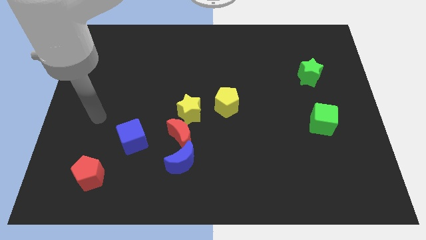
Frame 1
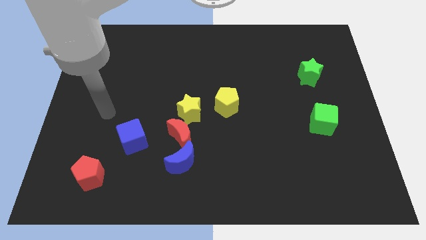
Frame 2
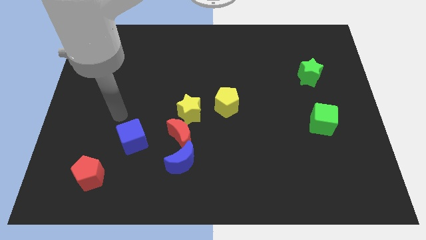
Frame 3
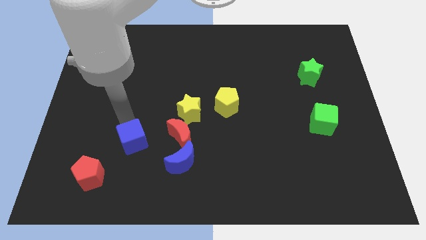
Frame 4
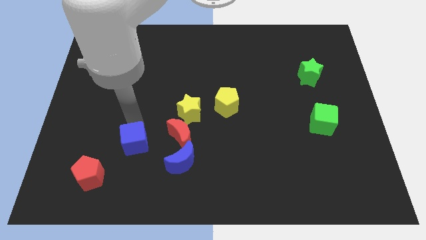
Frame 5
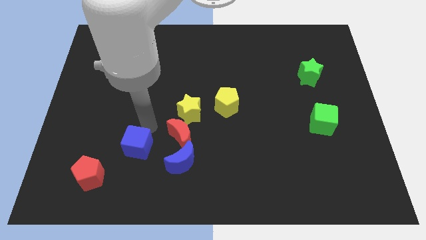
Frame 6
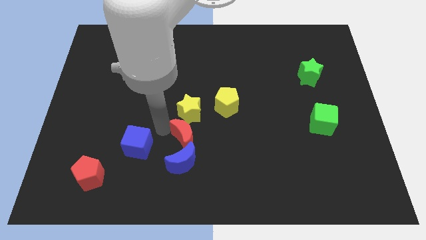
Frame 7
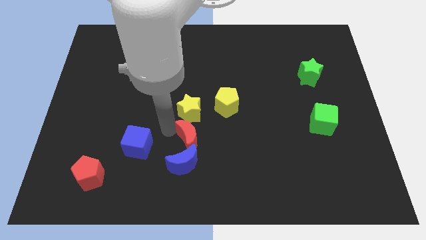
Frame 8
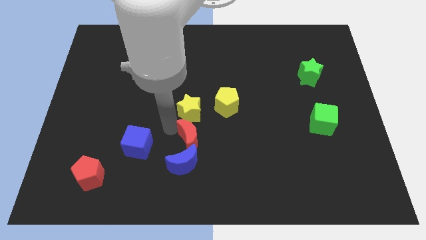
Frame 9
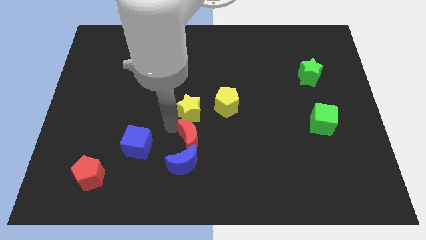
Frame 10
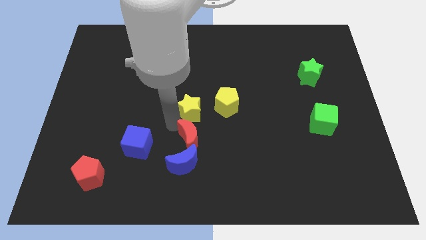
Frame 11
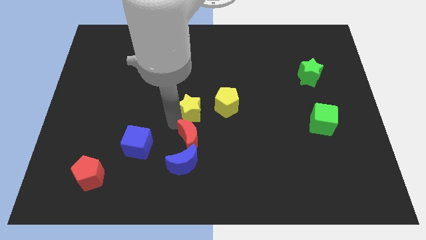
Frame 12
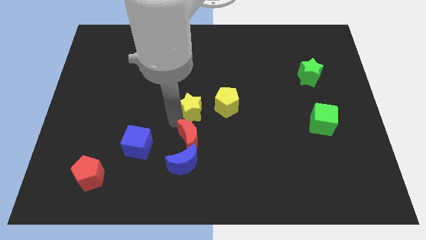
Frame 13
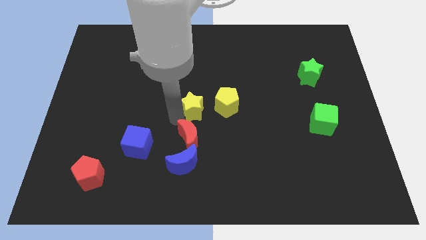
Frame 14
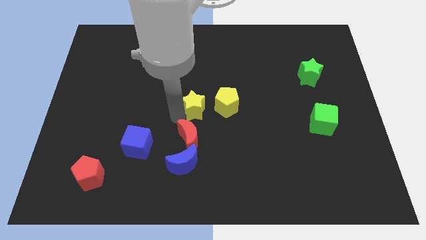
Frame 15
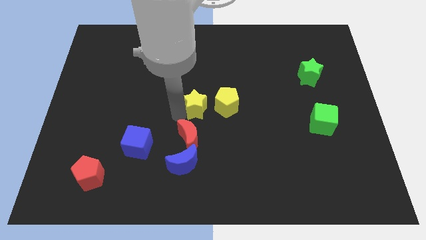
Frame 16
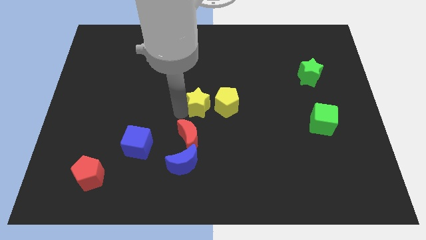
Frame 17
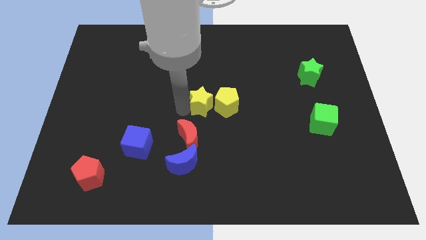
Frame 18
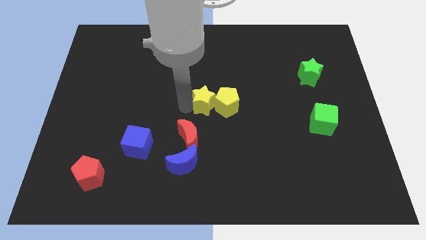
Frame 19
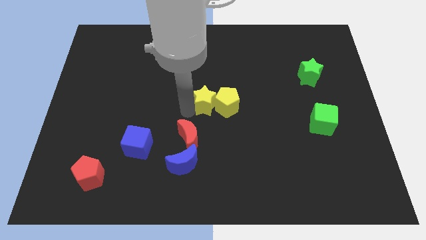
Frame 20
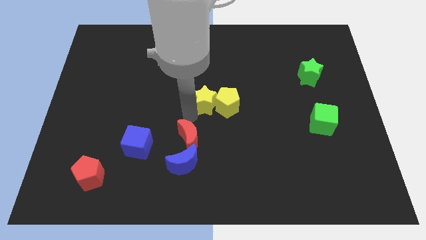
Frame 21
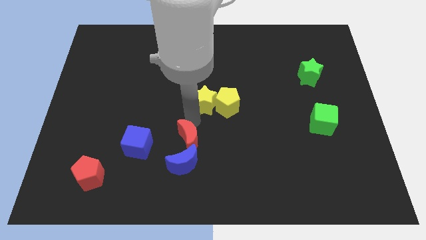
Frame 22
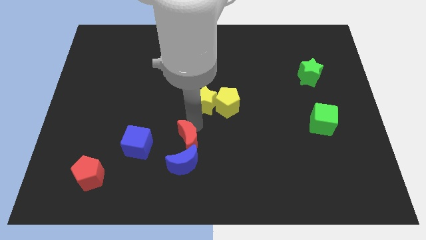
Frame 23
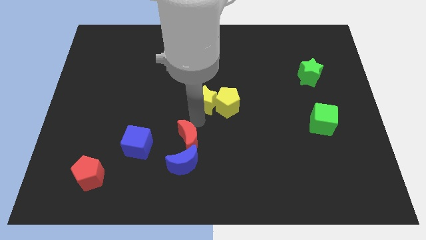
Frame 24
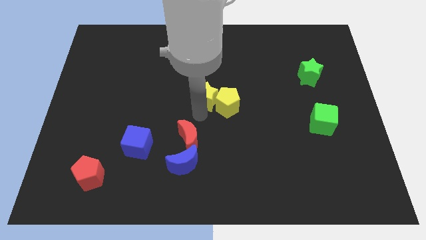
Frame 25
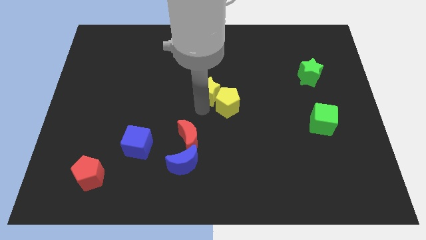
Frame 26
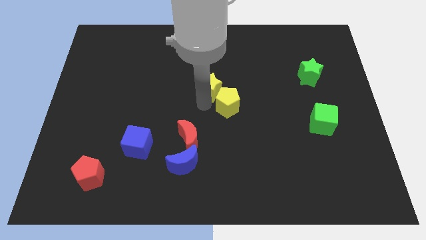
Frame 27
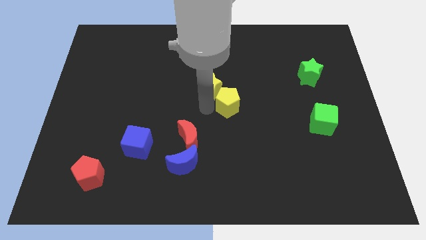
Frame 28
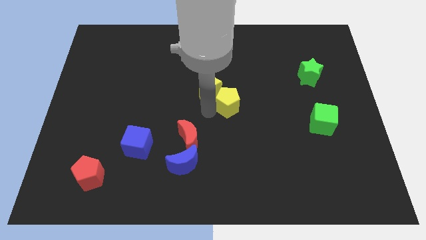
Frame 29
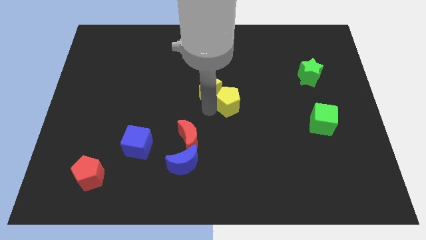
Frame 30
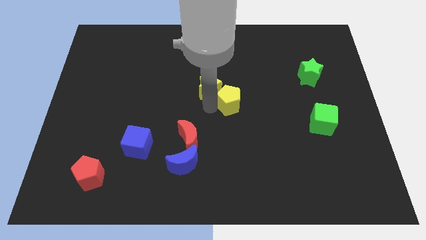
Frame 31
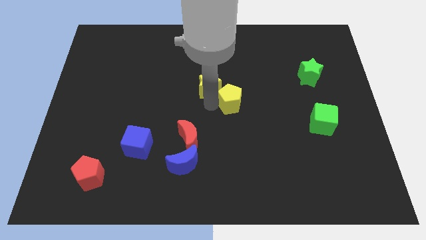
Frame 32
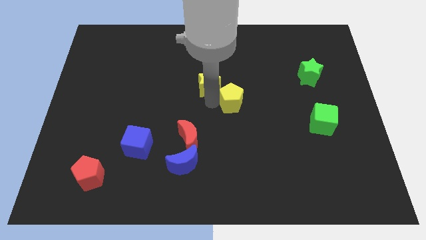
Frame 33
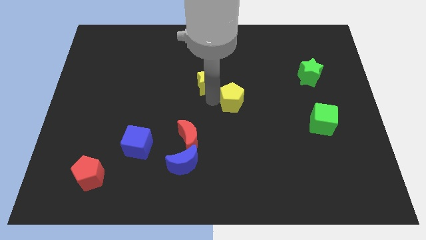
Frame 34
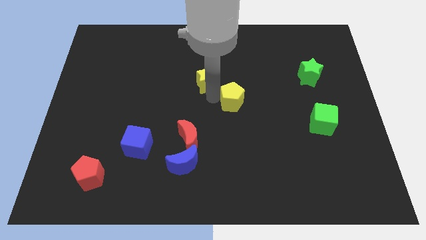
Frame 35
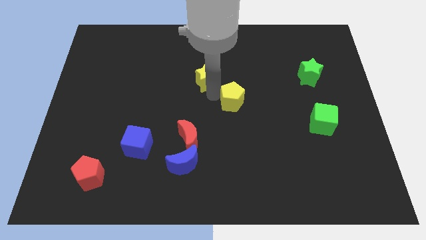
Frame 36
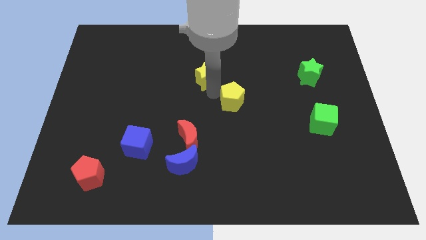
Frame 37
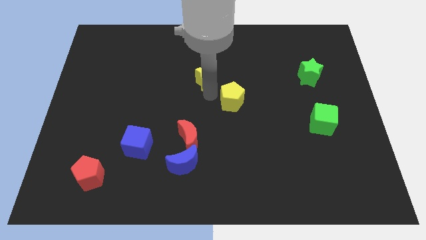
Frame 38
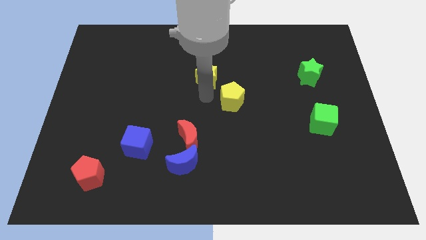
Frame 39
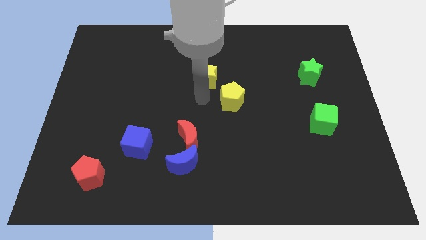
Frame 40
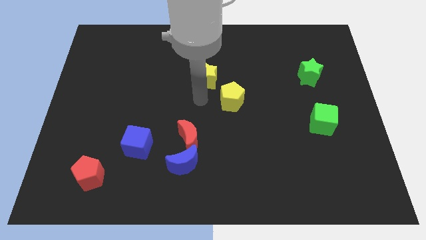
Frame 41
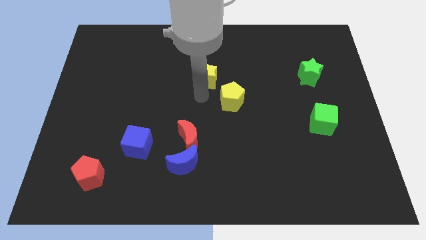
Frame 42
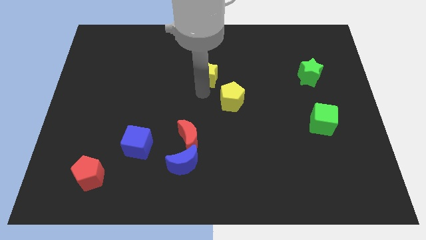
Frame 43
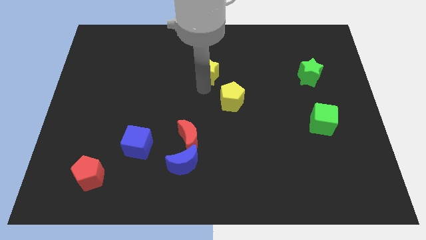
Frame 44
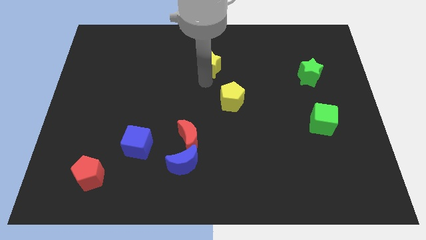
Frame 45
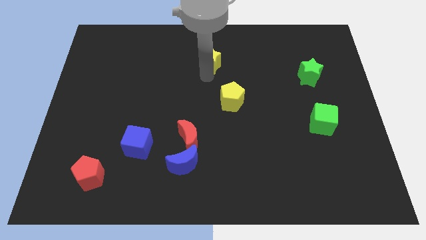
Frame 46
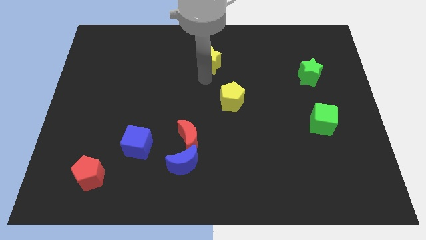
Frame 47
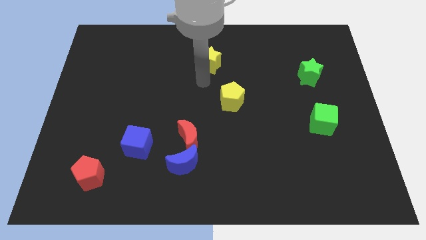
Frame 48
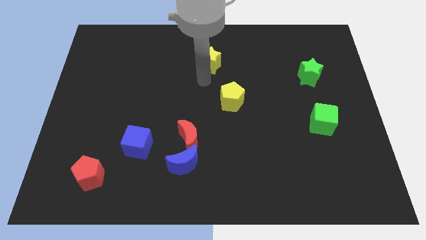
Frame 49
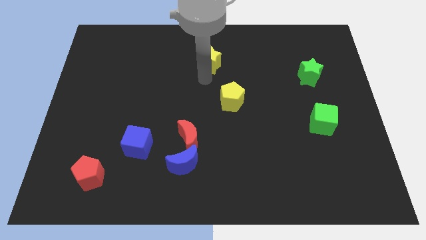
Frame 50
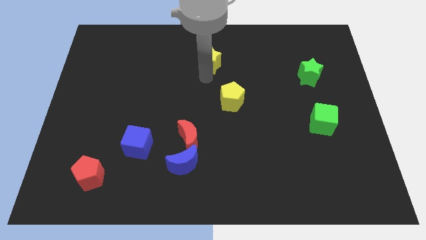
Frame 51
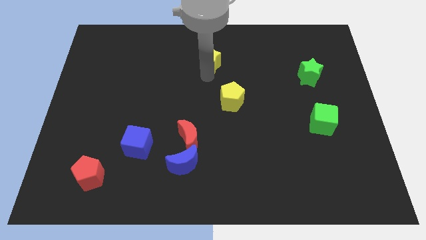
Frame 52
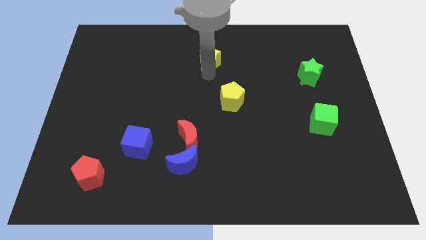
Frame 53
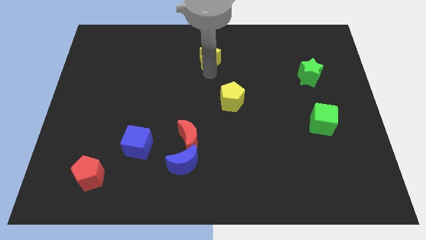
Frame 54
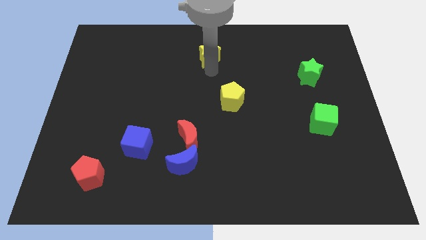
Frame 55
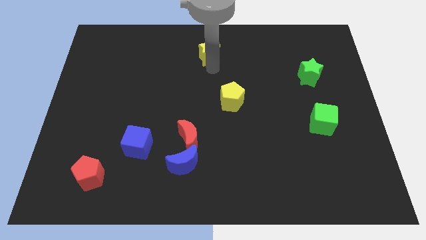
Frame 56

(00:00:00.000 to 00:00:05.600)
push the yellow star to the top side

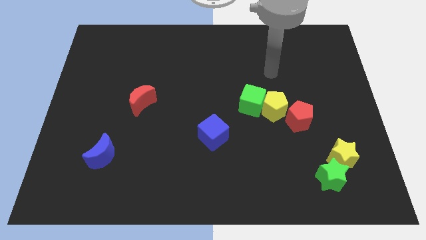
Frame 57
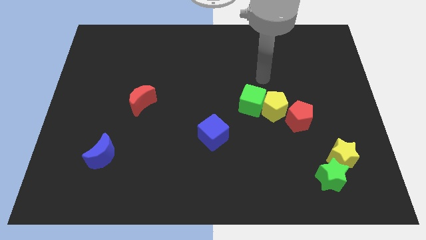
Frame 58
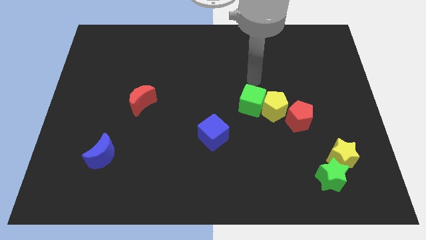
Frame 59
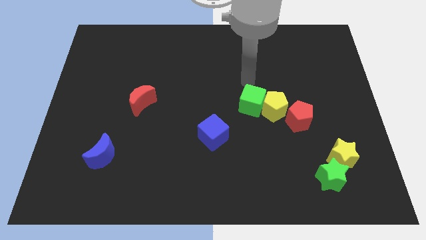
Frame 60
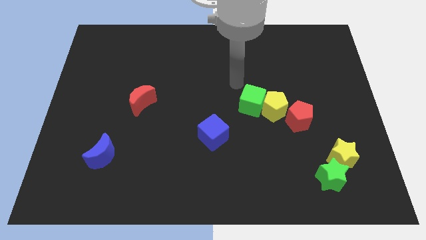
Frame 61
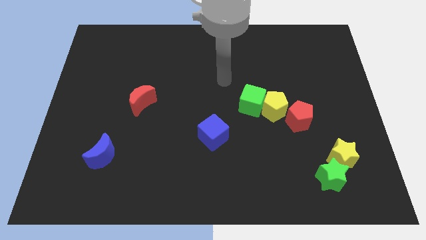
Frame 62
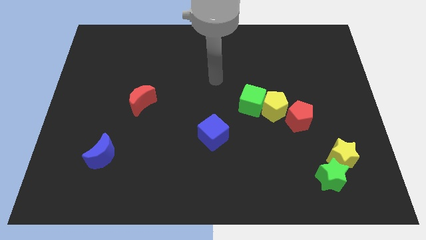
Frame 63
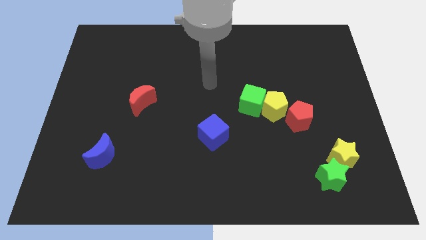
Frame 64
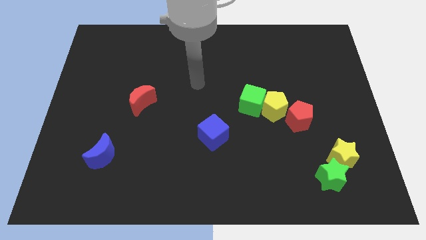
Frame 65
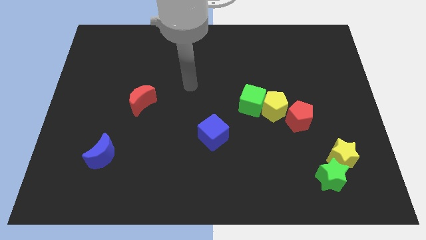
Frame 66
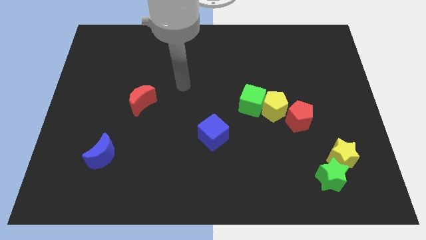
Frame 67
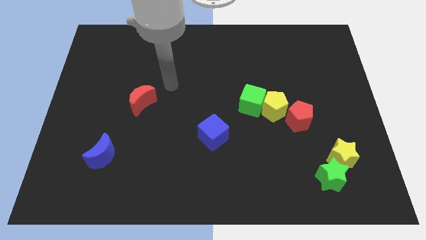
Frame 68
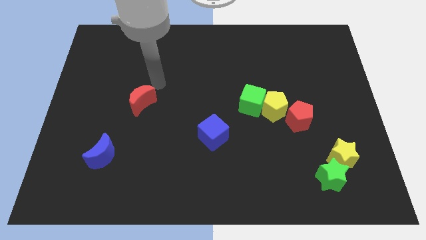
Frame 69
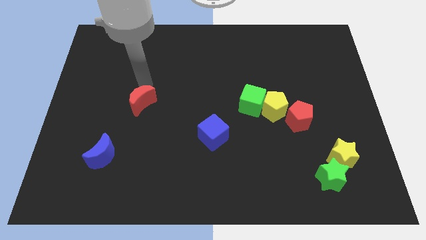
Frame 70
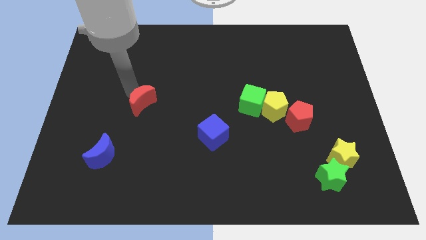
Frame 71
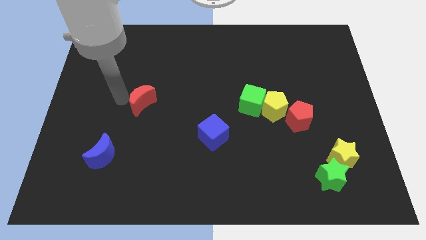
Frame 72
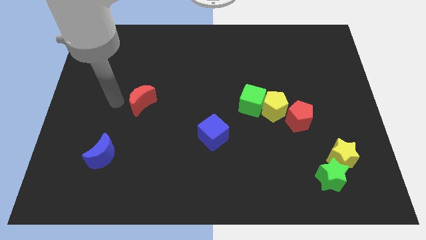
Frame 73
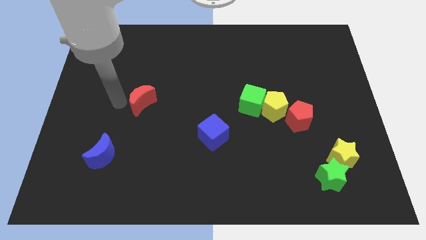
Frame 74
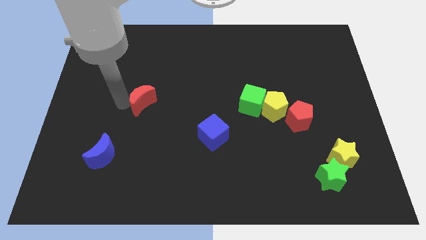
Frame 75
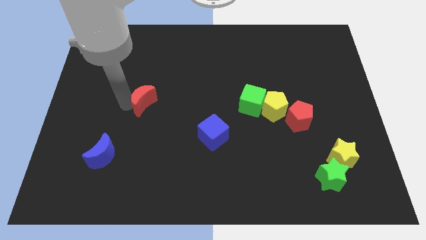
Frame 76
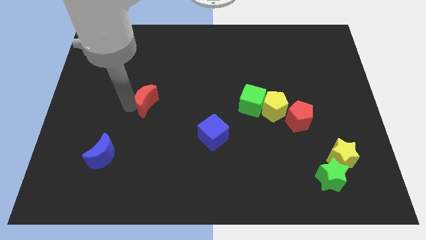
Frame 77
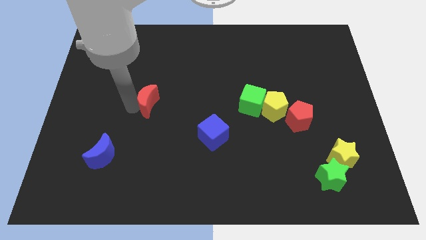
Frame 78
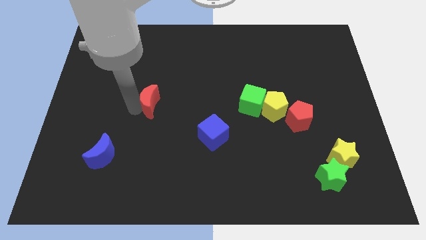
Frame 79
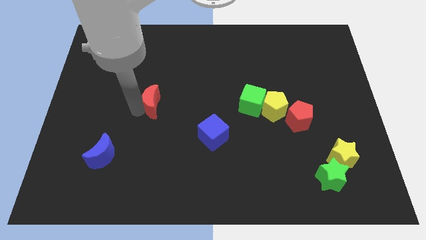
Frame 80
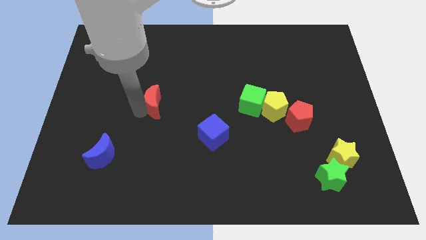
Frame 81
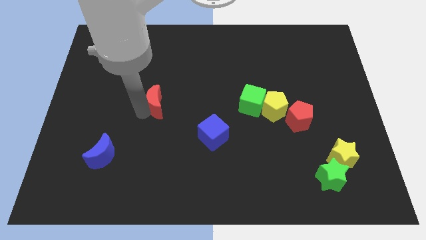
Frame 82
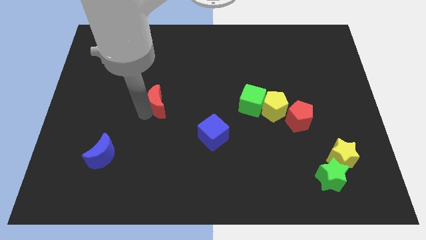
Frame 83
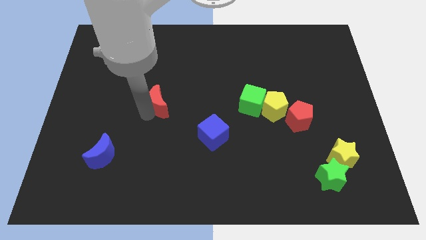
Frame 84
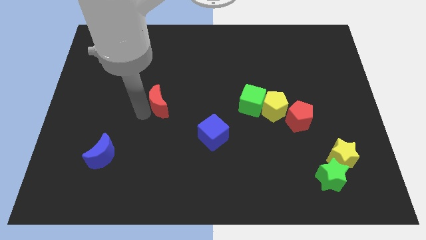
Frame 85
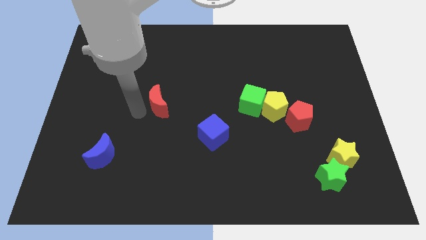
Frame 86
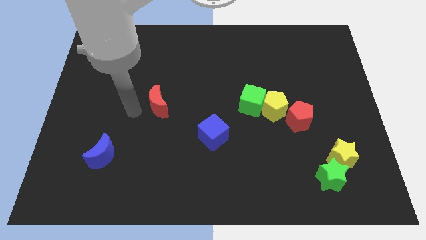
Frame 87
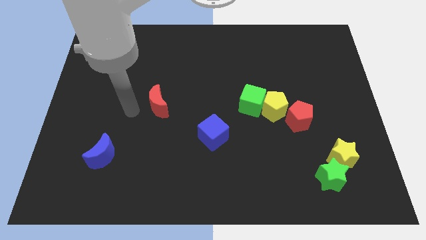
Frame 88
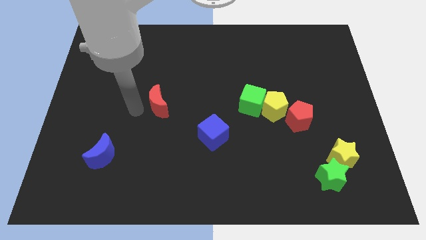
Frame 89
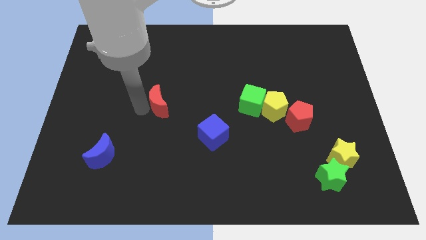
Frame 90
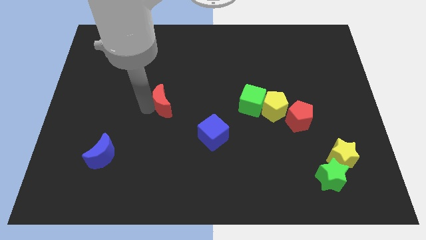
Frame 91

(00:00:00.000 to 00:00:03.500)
move the red moon to the middle of the board
